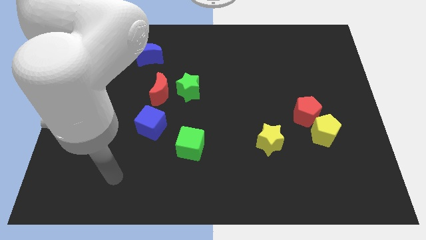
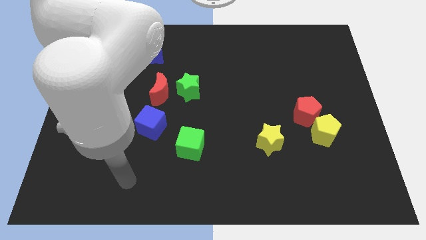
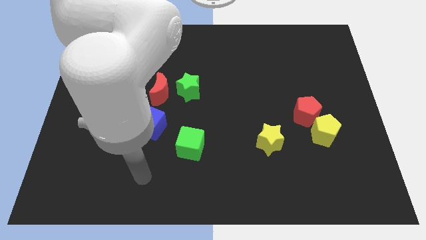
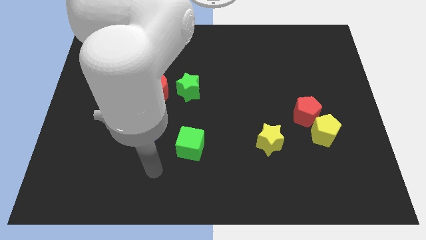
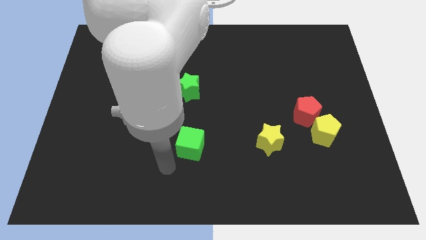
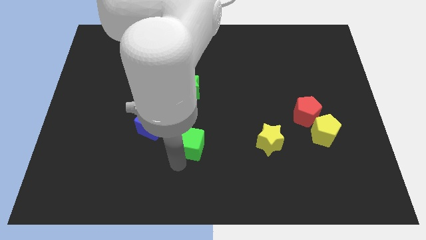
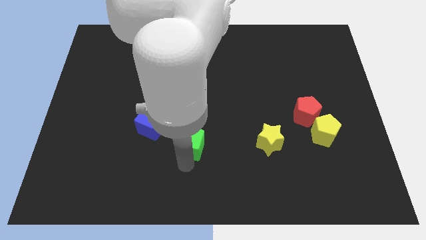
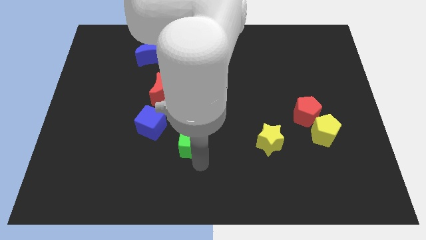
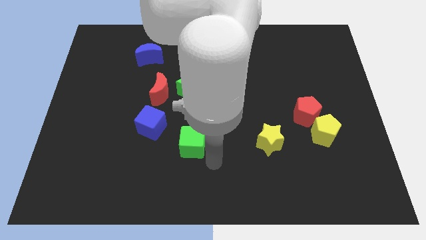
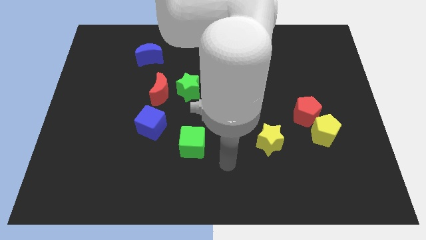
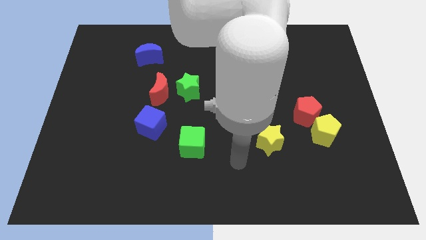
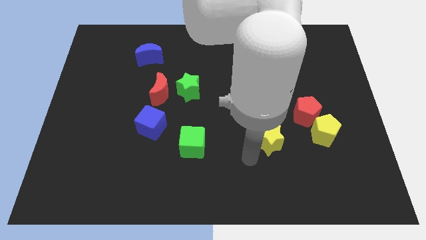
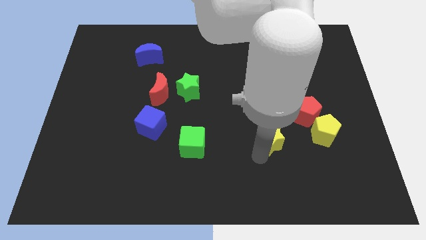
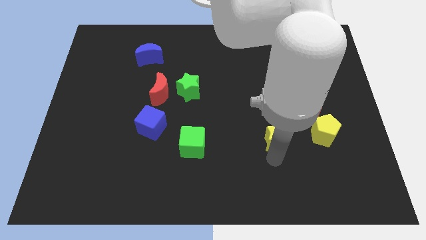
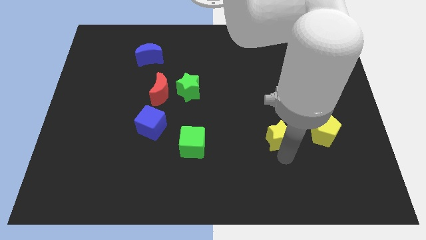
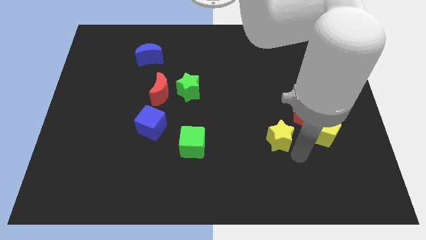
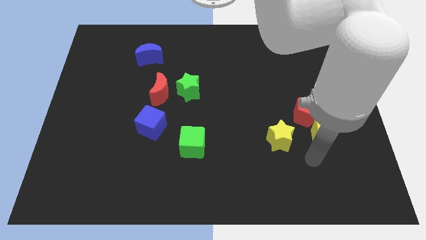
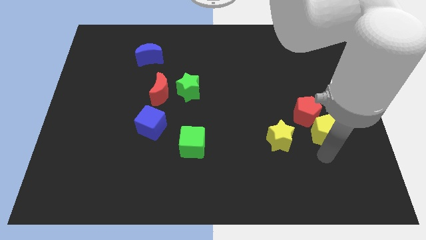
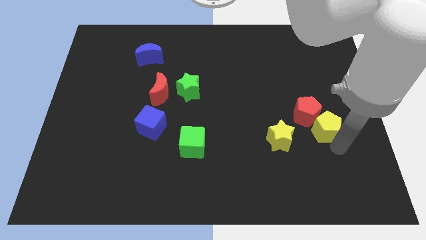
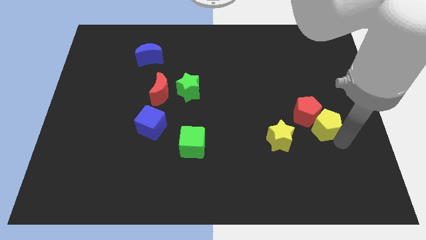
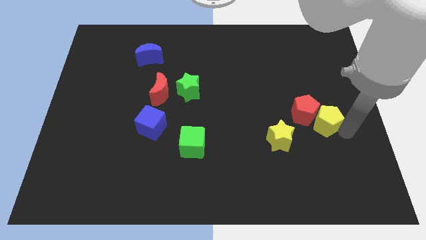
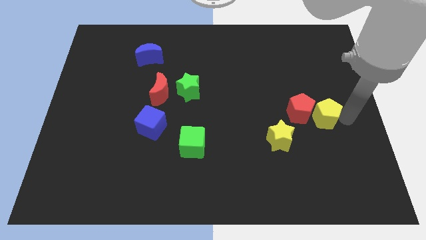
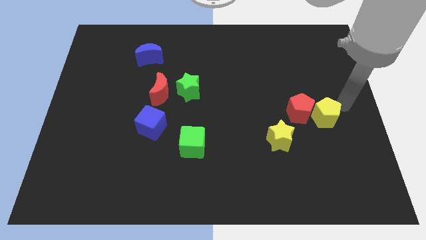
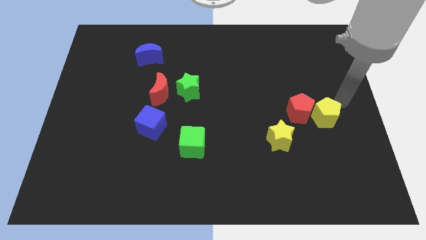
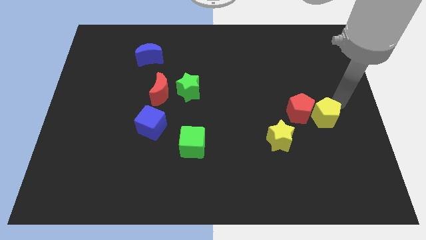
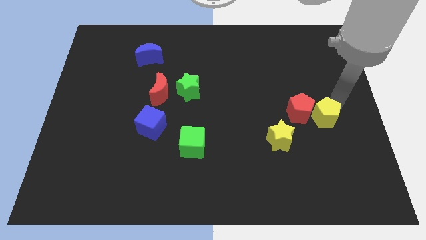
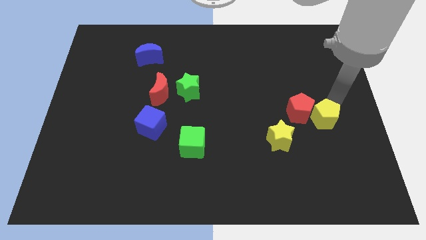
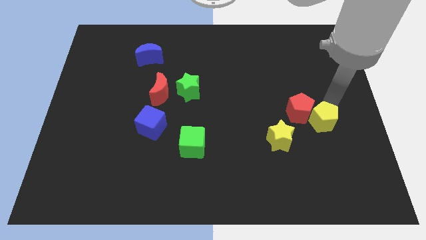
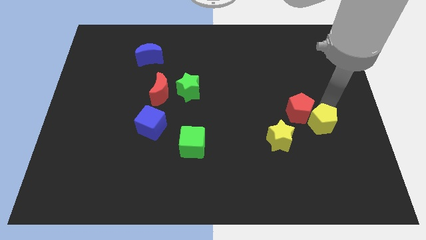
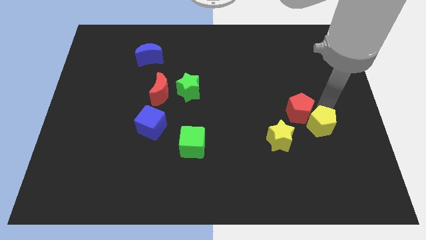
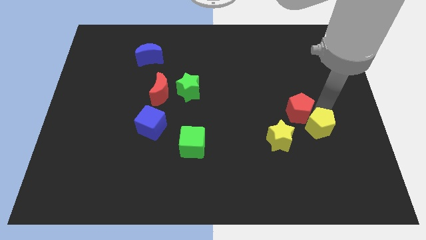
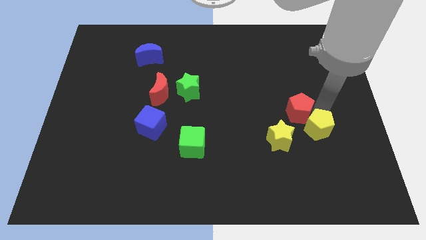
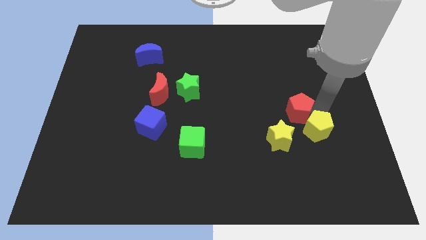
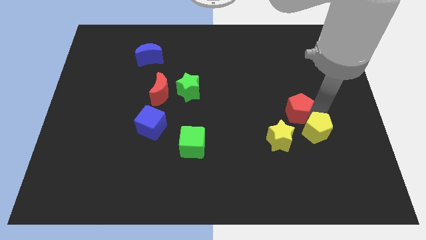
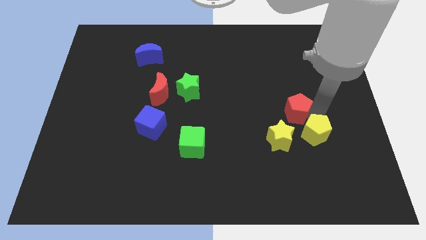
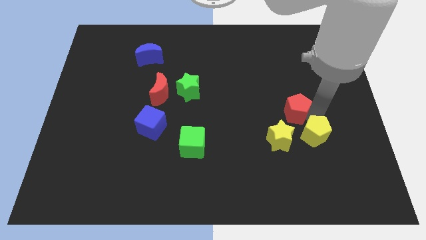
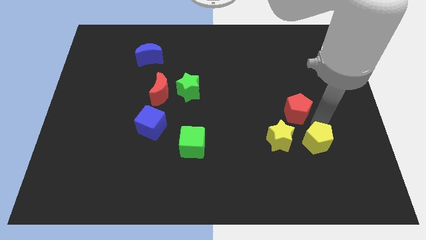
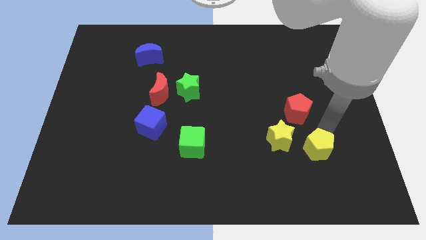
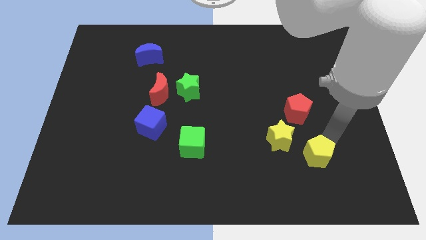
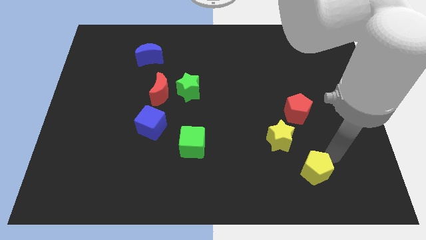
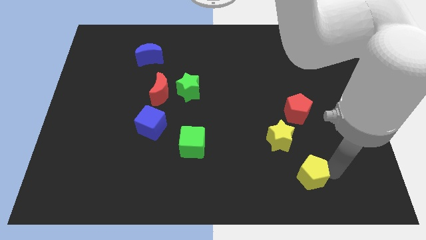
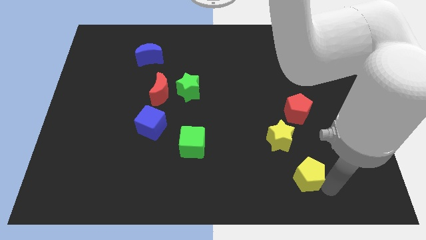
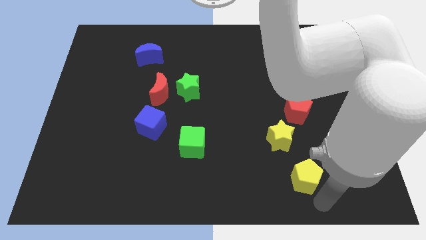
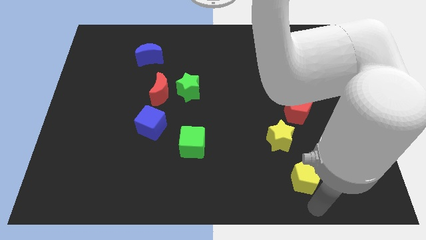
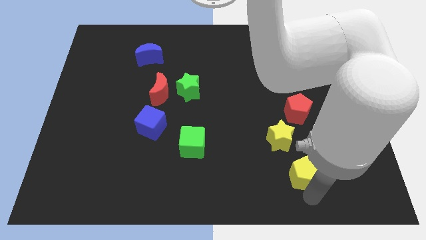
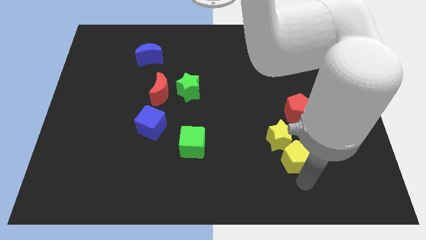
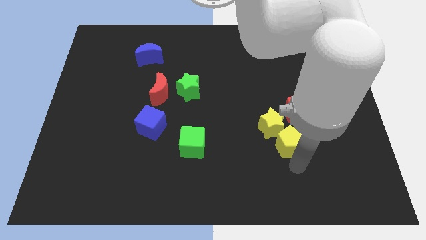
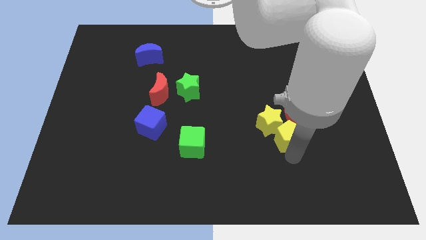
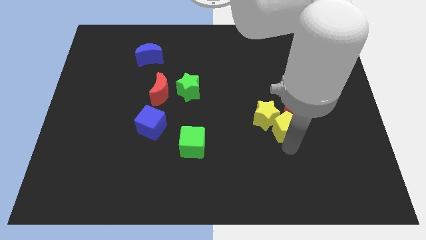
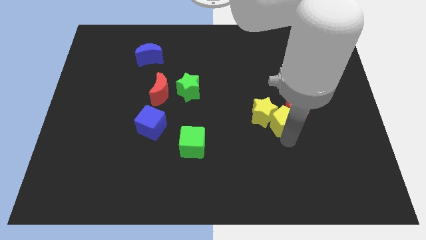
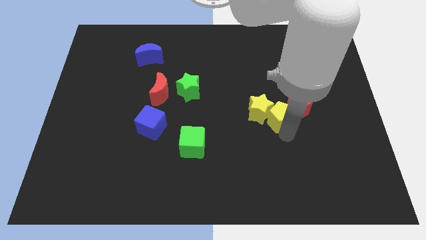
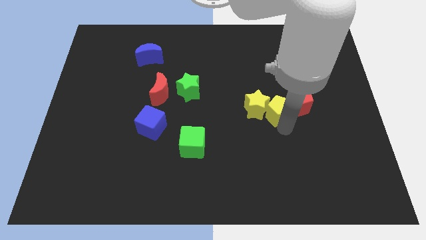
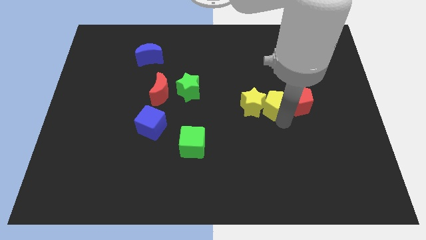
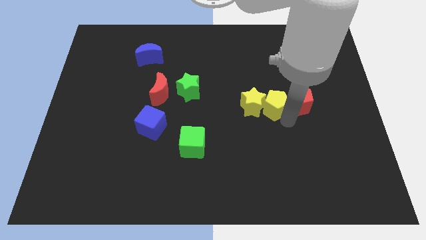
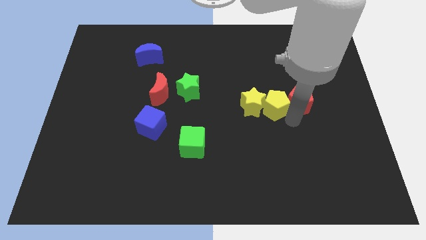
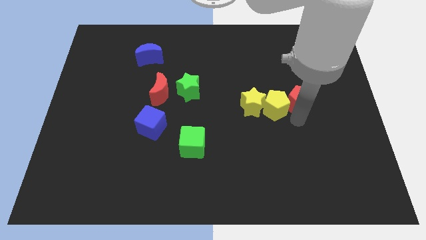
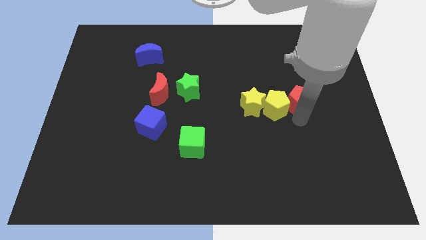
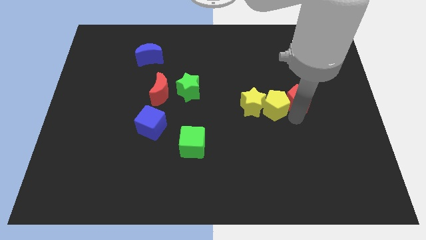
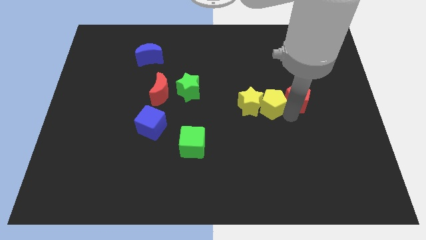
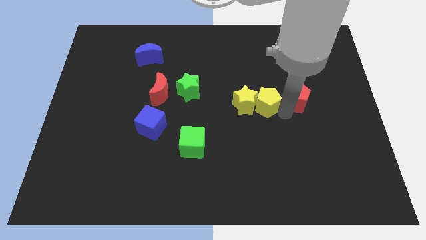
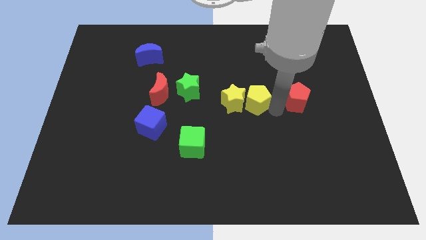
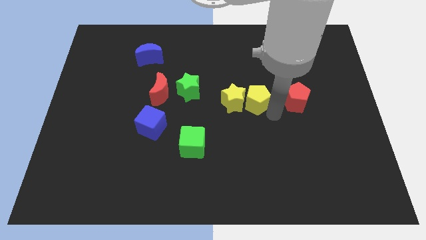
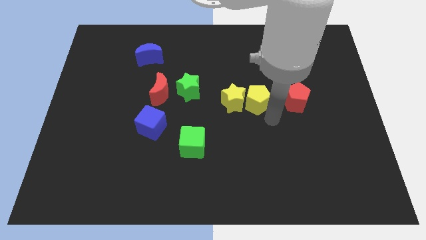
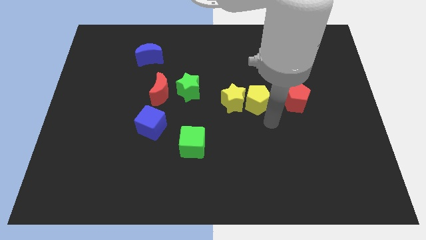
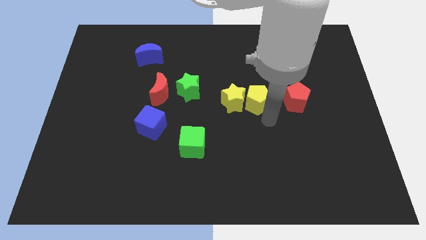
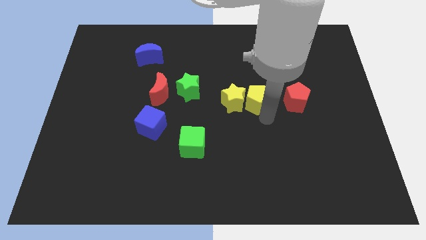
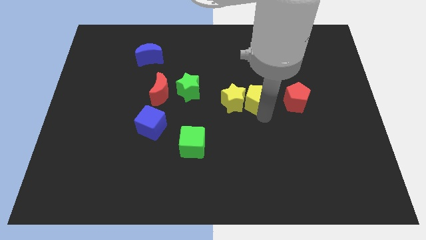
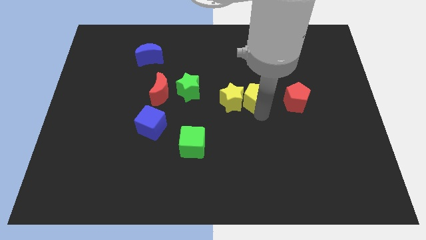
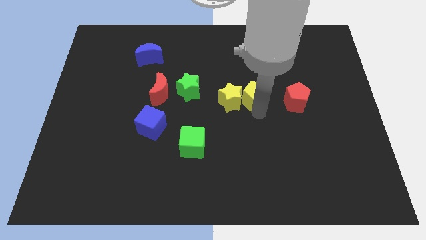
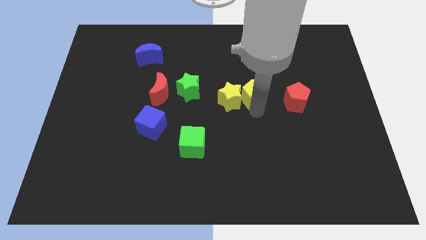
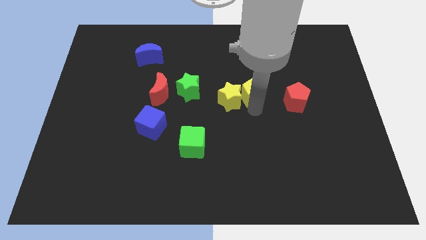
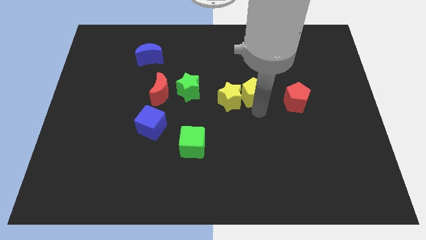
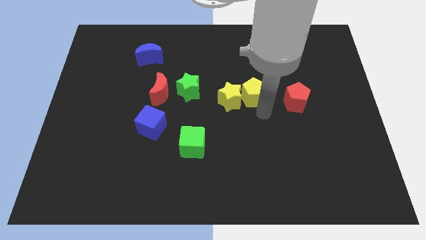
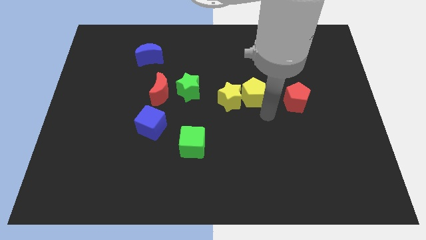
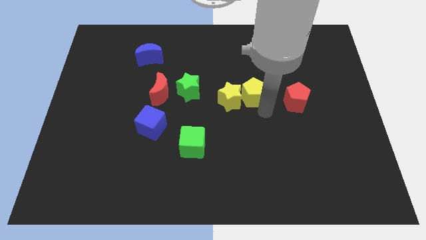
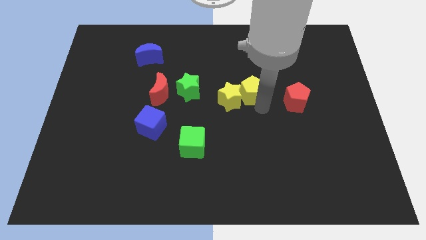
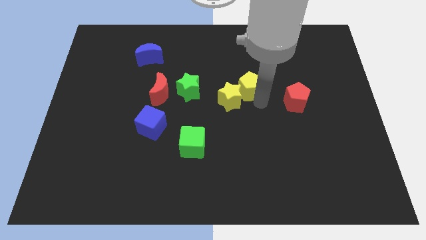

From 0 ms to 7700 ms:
slide the yellow pentagon diagonally up and to the left

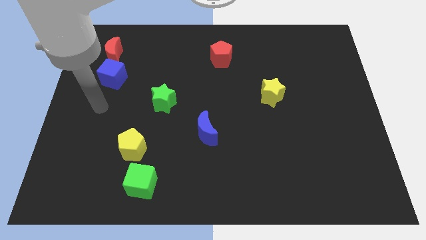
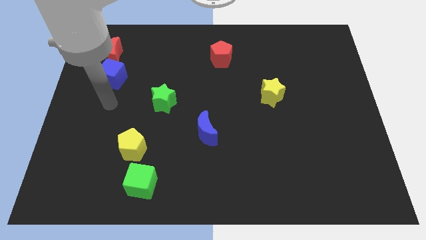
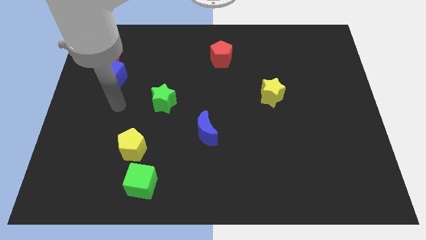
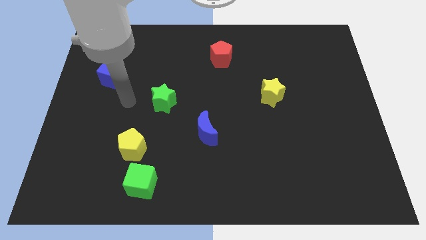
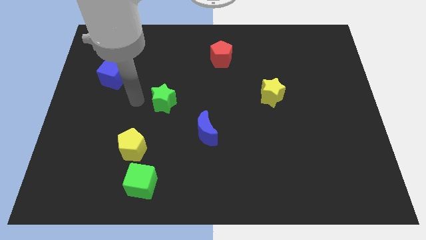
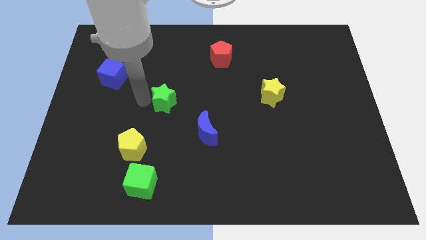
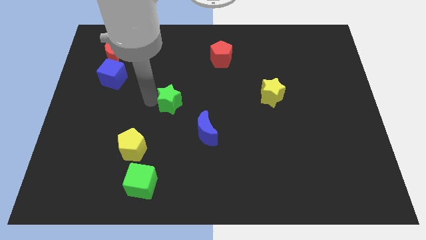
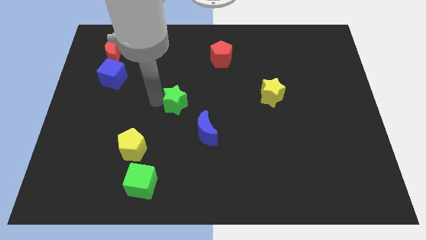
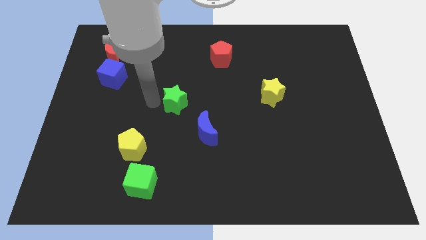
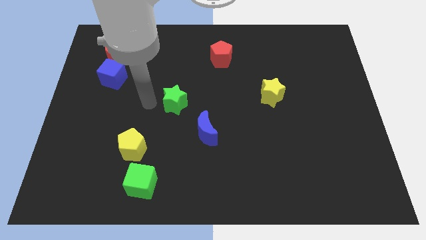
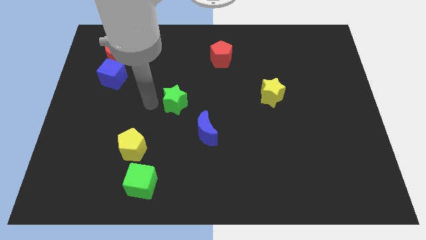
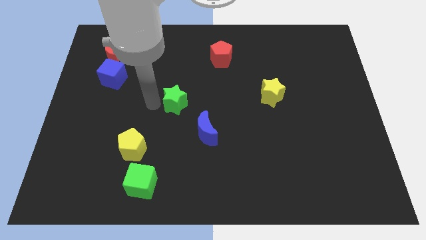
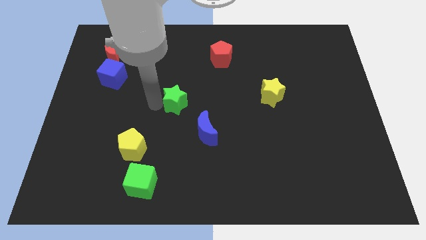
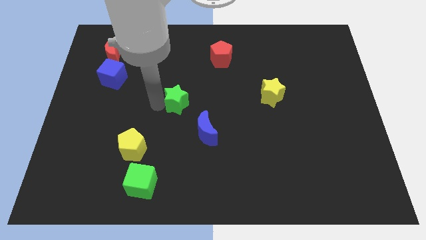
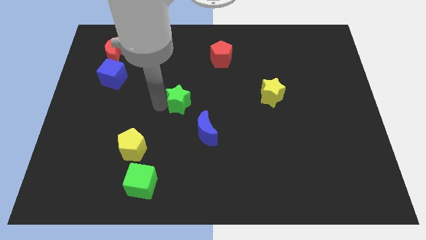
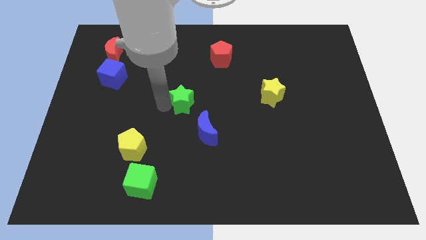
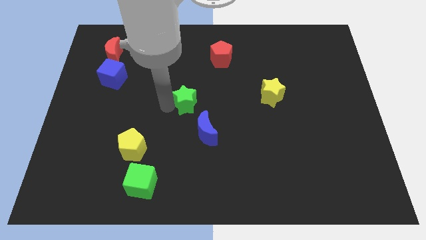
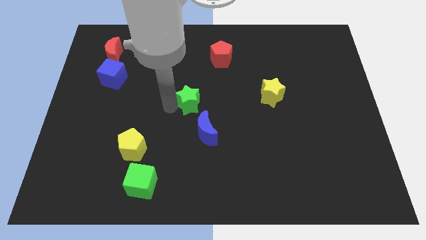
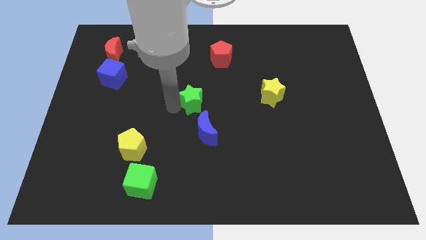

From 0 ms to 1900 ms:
slightly push the green star to the right
